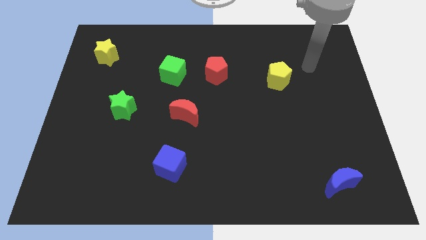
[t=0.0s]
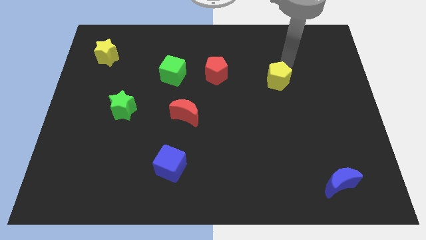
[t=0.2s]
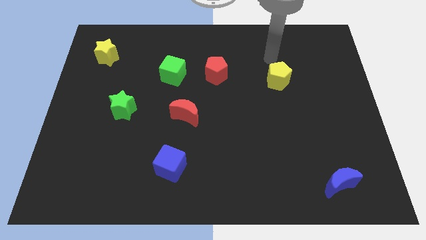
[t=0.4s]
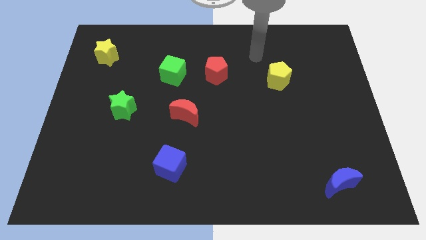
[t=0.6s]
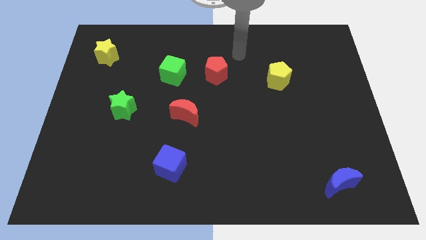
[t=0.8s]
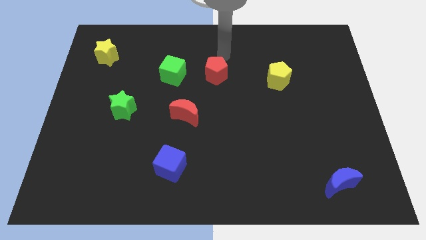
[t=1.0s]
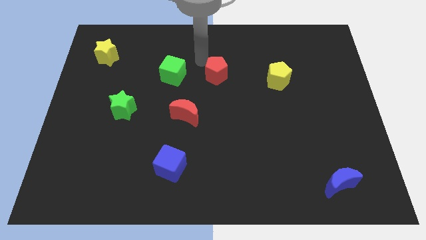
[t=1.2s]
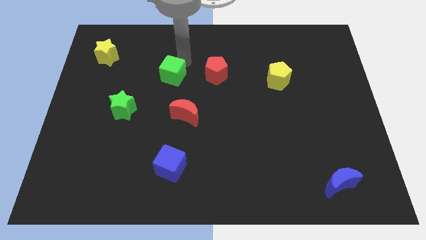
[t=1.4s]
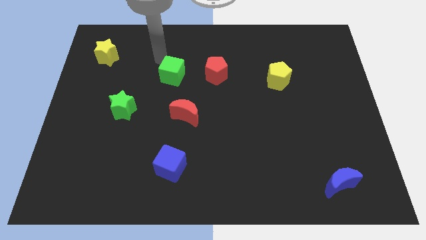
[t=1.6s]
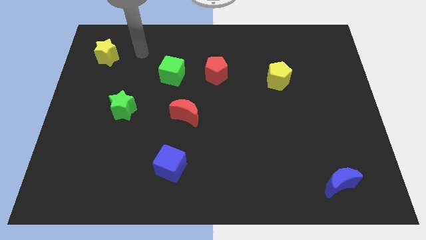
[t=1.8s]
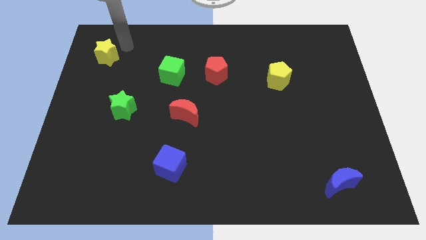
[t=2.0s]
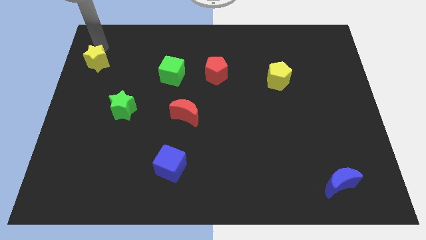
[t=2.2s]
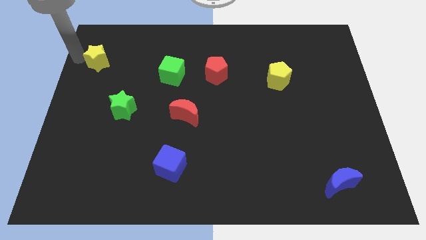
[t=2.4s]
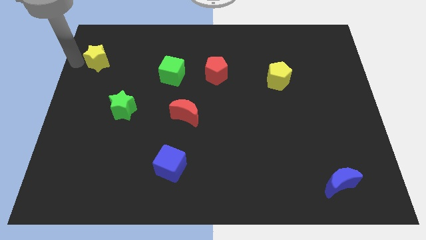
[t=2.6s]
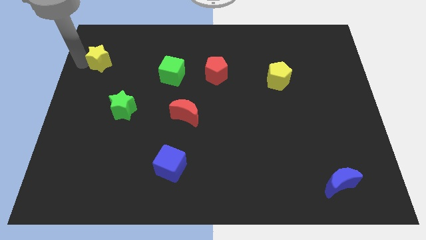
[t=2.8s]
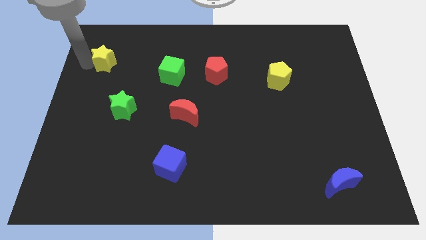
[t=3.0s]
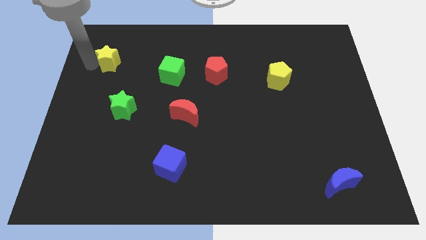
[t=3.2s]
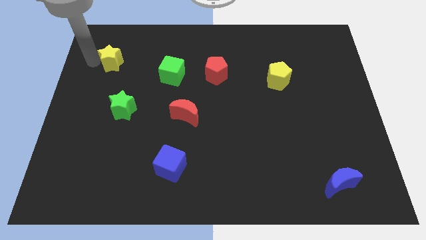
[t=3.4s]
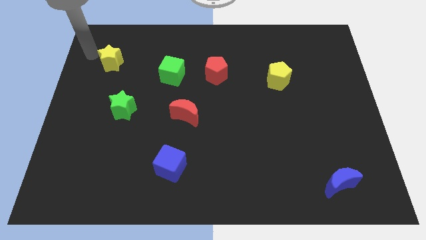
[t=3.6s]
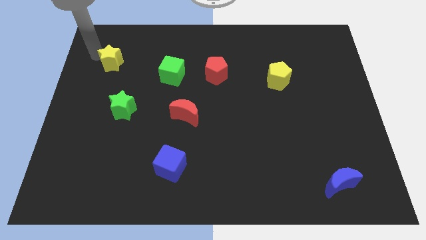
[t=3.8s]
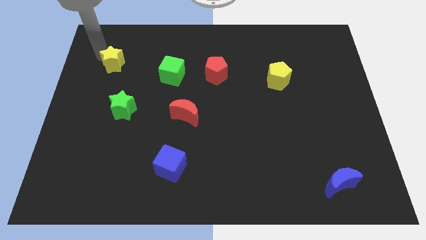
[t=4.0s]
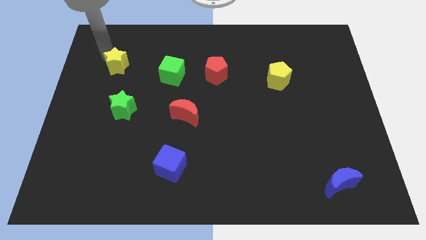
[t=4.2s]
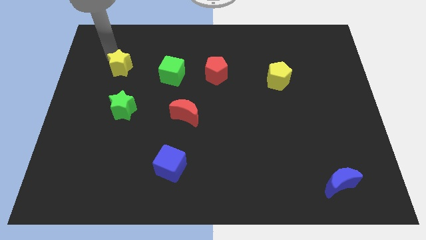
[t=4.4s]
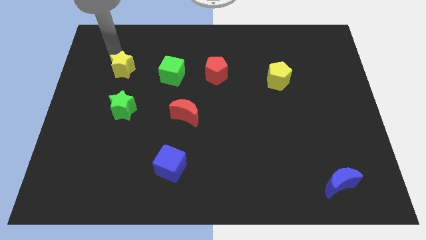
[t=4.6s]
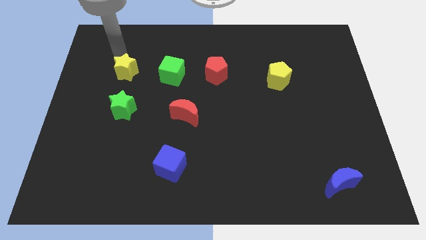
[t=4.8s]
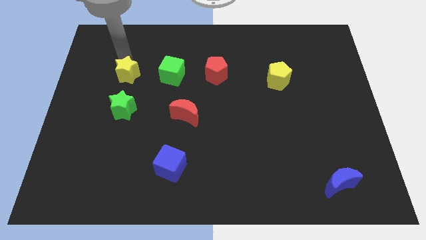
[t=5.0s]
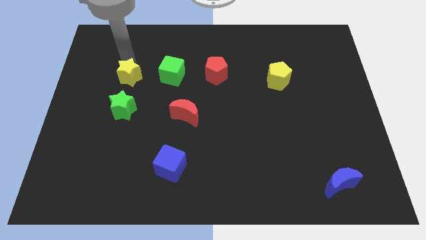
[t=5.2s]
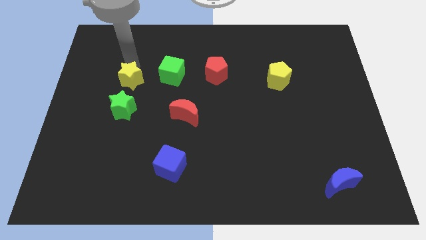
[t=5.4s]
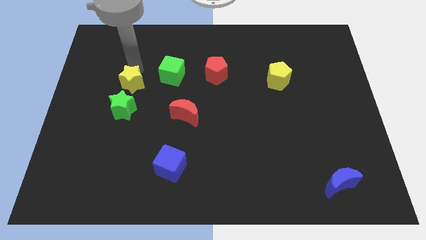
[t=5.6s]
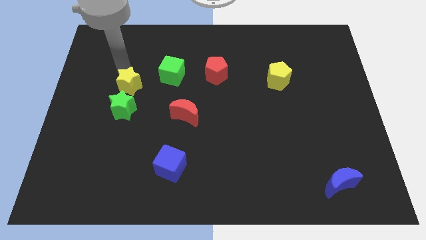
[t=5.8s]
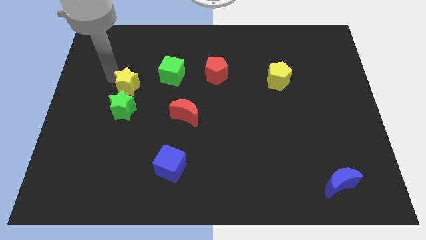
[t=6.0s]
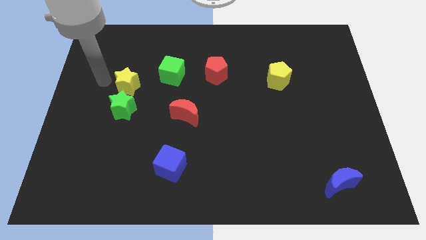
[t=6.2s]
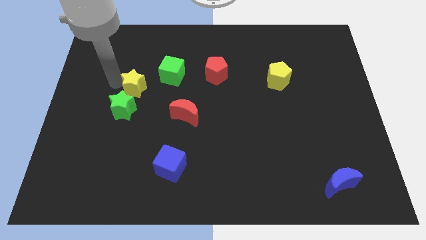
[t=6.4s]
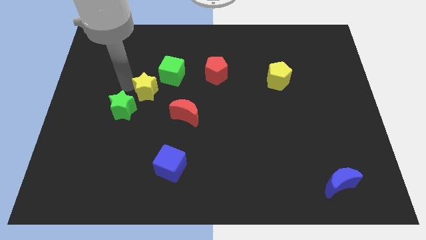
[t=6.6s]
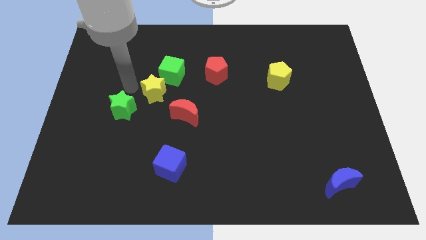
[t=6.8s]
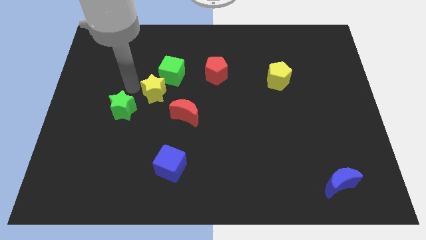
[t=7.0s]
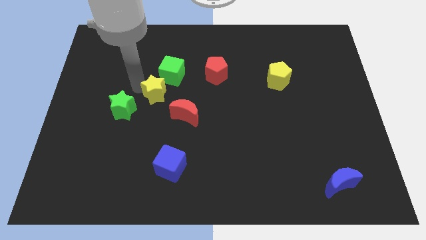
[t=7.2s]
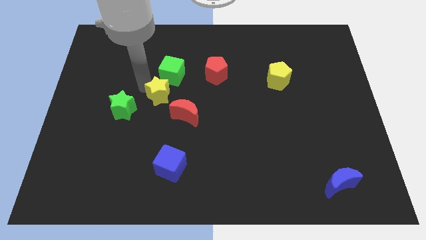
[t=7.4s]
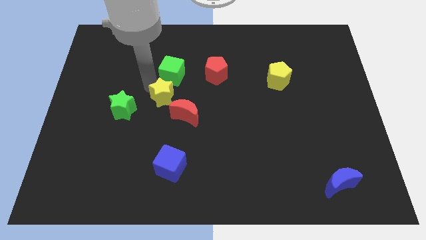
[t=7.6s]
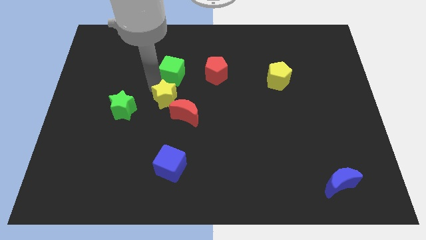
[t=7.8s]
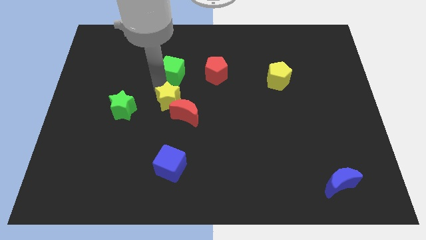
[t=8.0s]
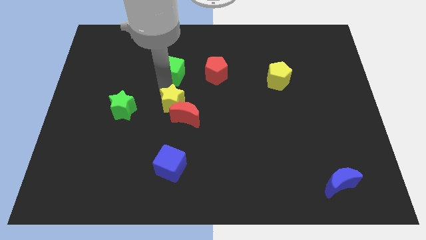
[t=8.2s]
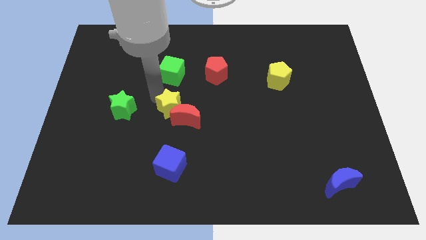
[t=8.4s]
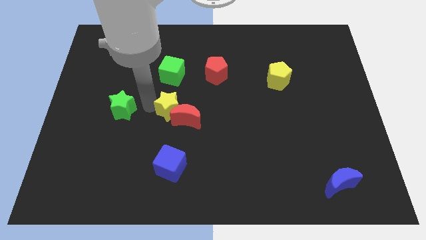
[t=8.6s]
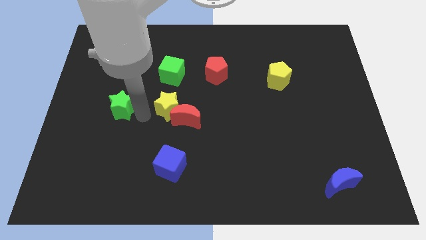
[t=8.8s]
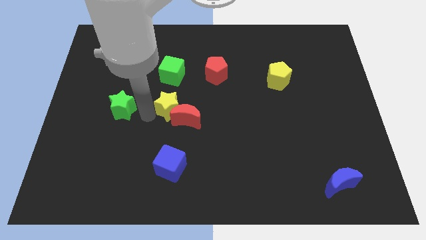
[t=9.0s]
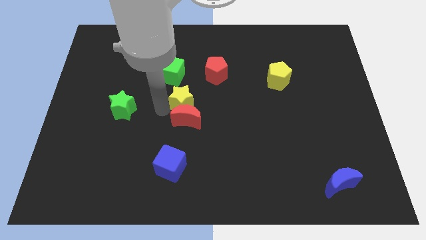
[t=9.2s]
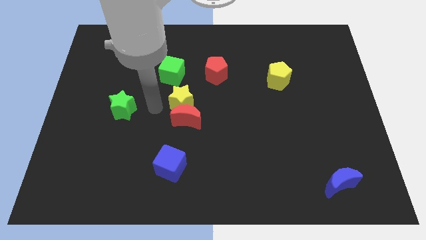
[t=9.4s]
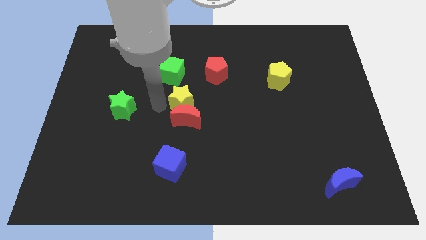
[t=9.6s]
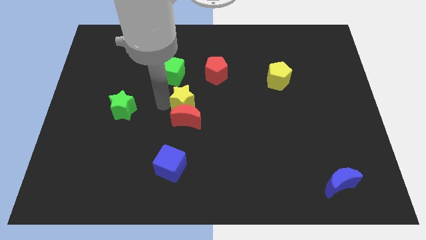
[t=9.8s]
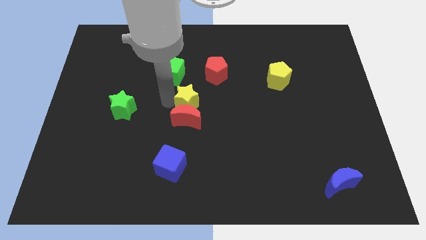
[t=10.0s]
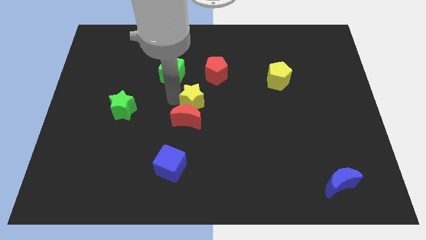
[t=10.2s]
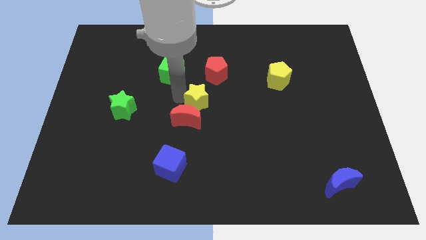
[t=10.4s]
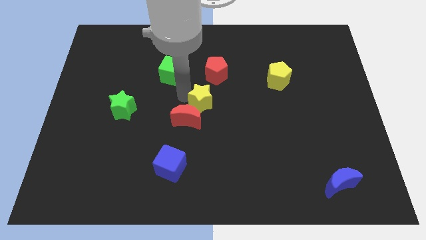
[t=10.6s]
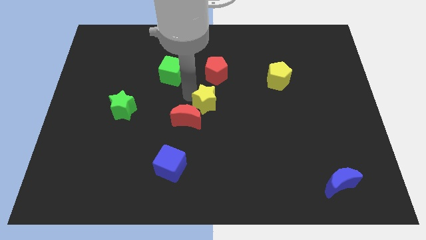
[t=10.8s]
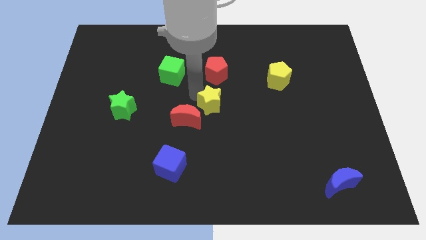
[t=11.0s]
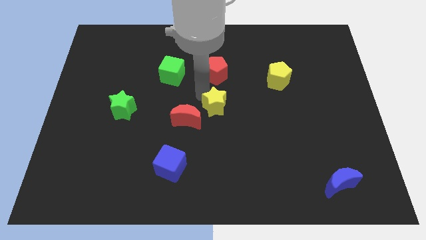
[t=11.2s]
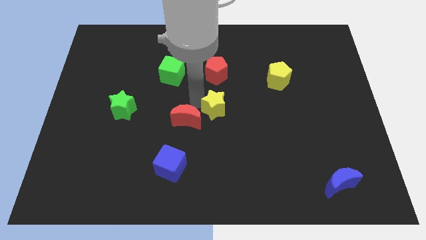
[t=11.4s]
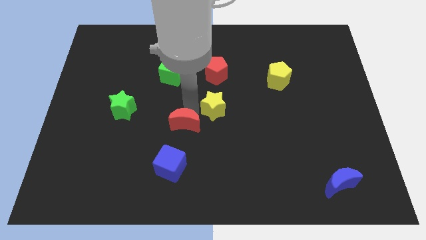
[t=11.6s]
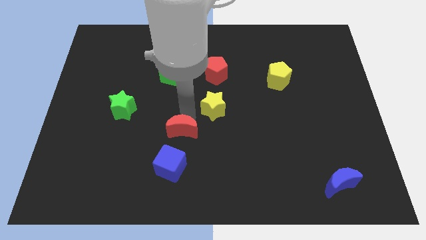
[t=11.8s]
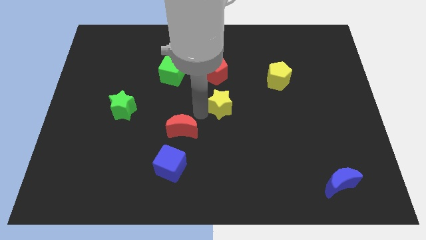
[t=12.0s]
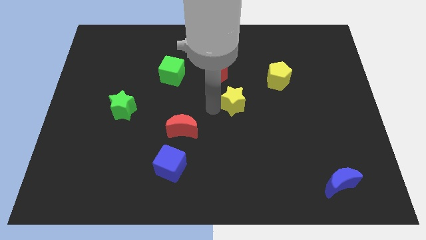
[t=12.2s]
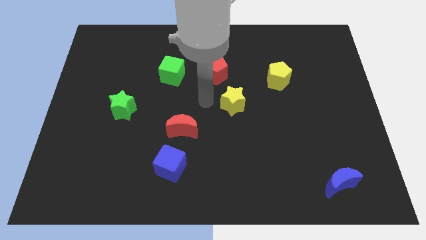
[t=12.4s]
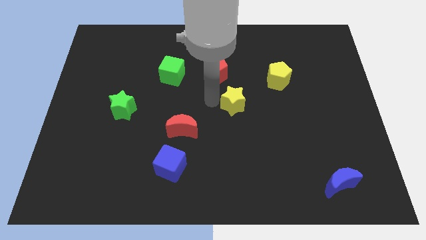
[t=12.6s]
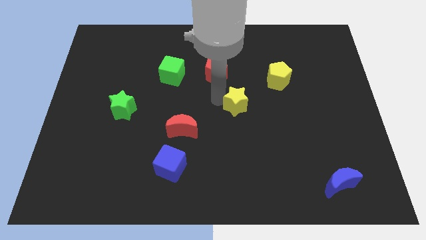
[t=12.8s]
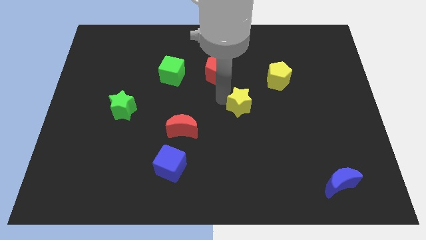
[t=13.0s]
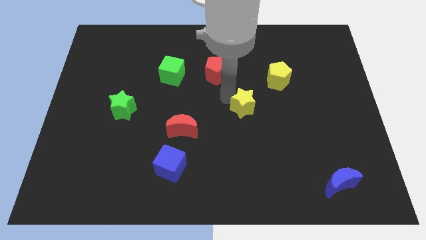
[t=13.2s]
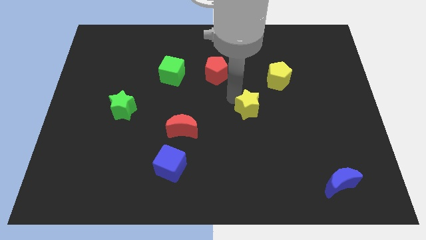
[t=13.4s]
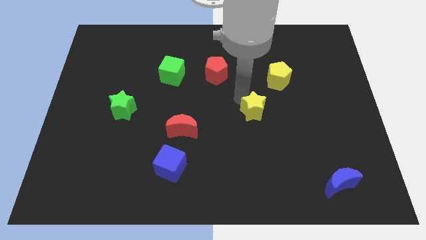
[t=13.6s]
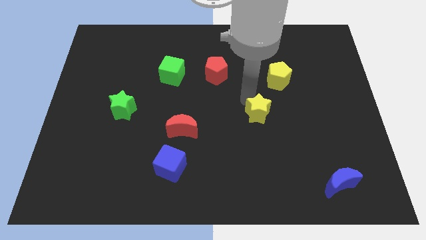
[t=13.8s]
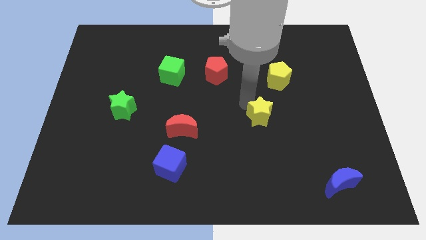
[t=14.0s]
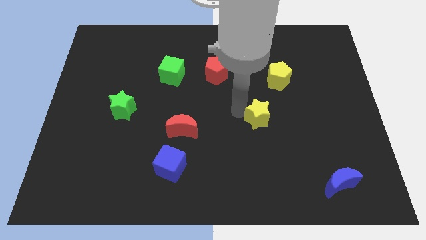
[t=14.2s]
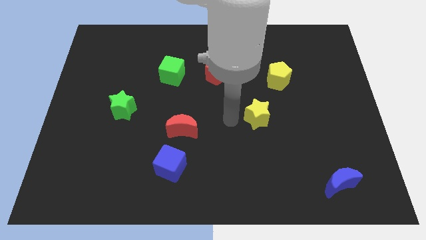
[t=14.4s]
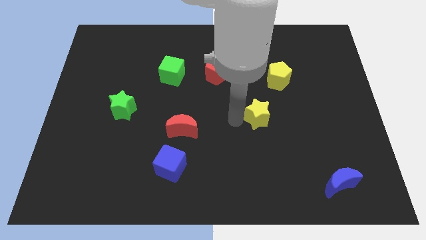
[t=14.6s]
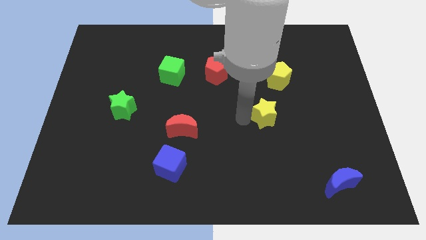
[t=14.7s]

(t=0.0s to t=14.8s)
put the yellow star to the bottom side of the yellow pentagon

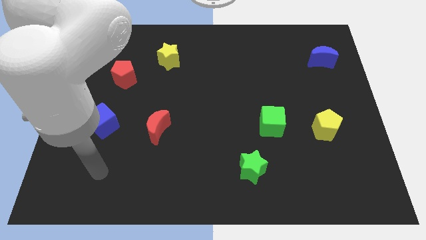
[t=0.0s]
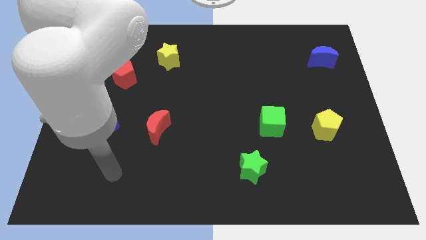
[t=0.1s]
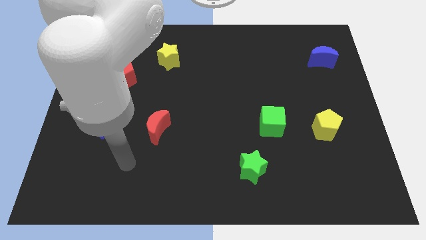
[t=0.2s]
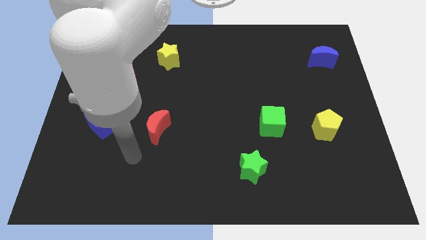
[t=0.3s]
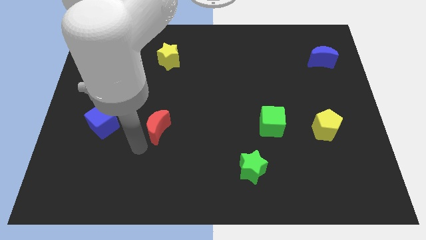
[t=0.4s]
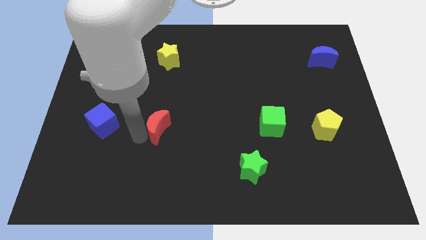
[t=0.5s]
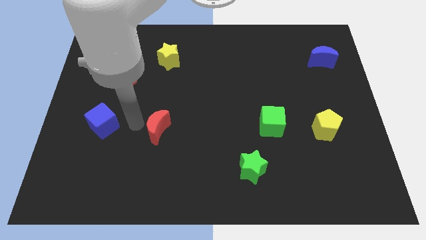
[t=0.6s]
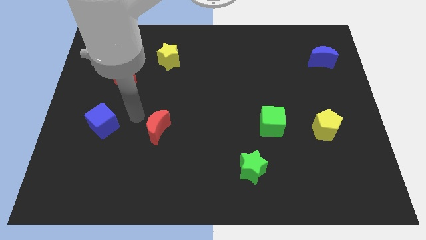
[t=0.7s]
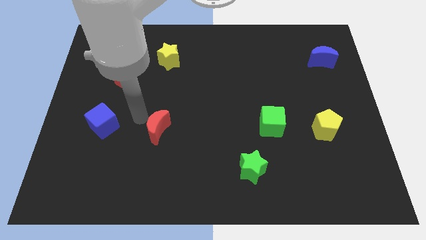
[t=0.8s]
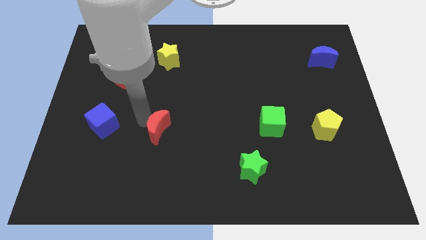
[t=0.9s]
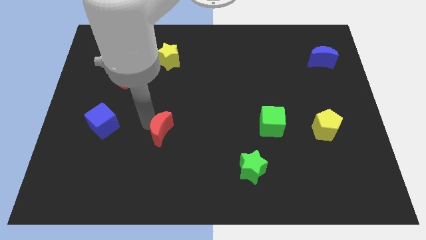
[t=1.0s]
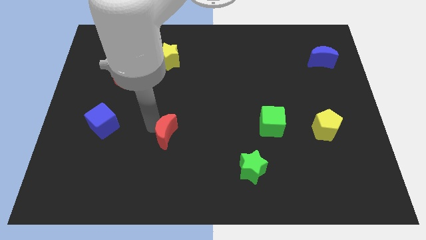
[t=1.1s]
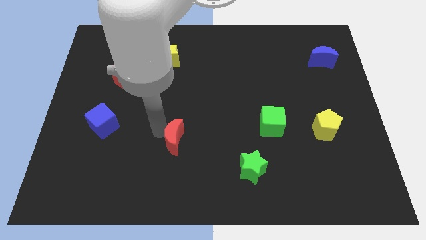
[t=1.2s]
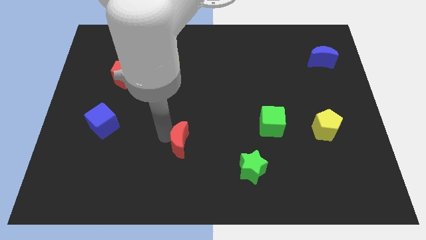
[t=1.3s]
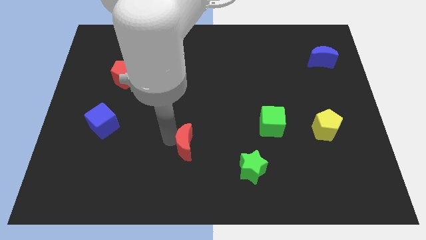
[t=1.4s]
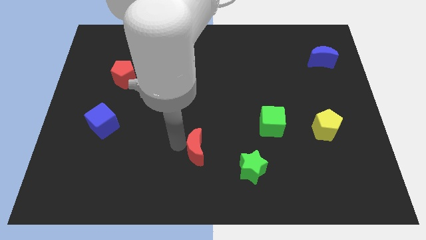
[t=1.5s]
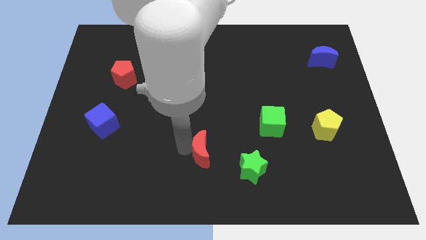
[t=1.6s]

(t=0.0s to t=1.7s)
move the red moon to the top left side of the green star
